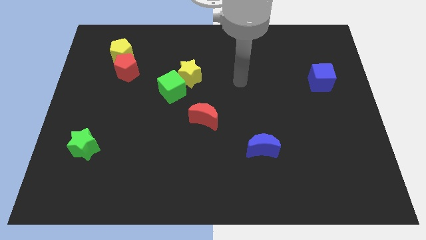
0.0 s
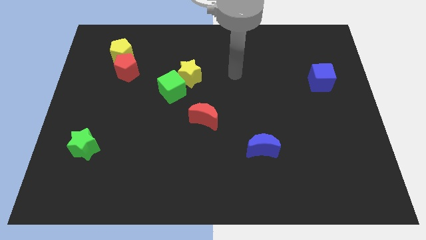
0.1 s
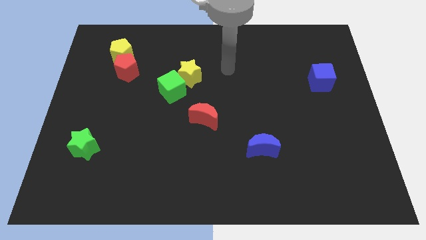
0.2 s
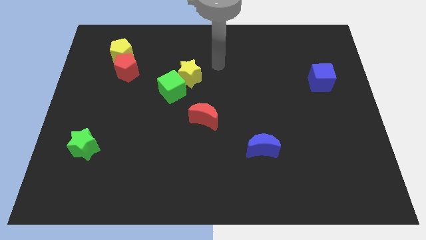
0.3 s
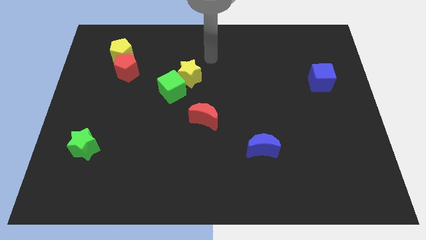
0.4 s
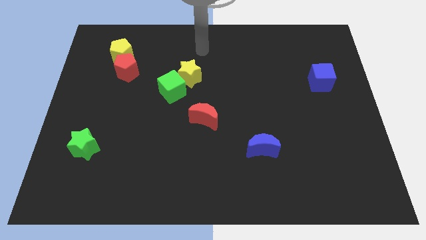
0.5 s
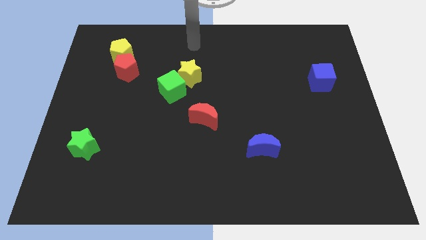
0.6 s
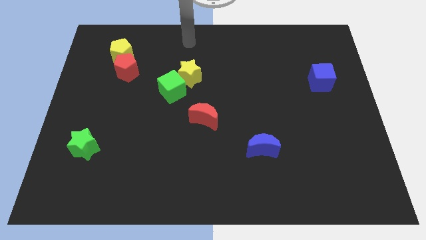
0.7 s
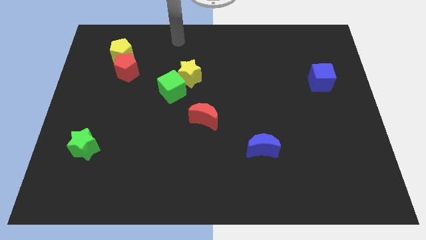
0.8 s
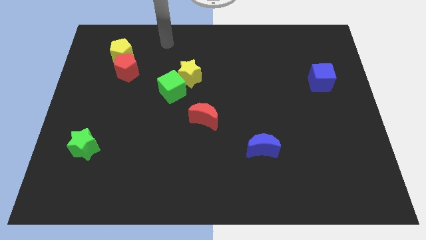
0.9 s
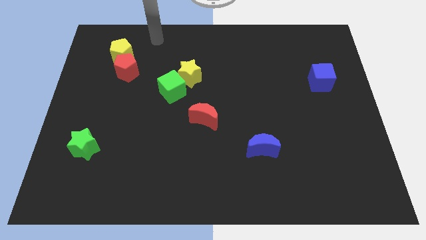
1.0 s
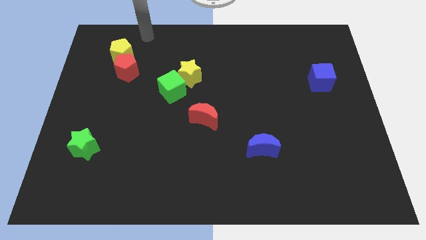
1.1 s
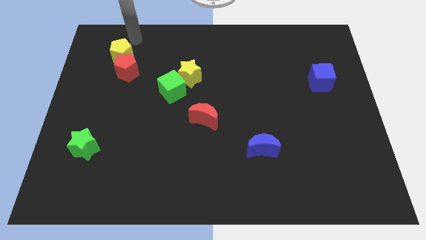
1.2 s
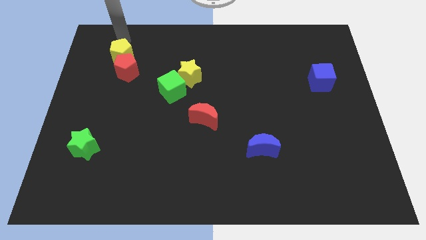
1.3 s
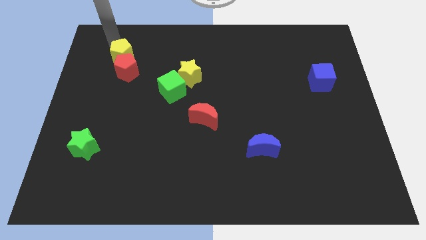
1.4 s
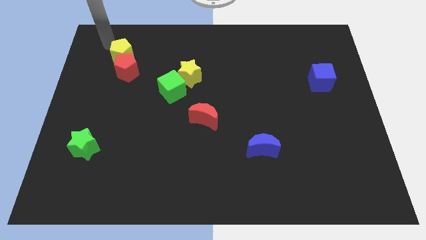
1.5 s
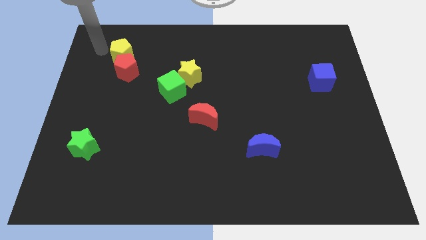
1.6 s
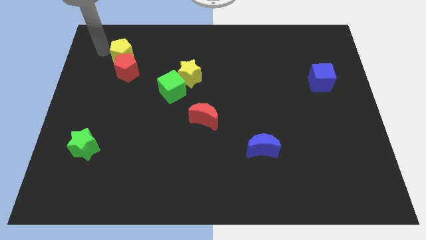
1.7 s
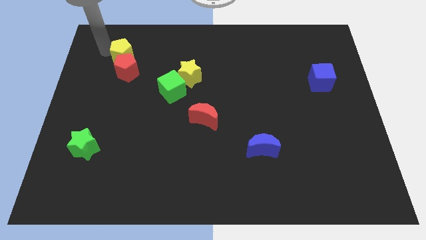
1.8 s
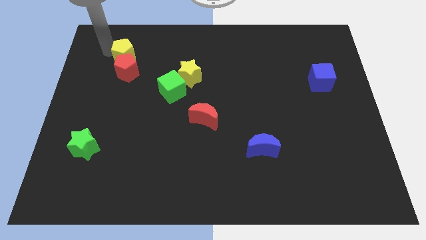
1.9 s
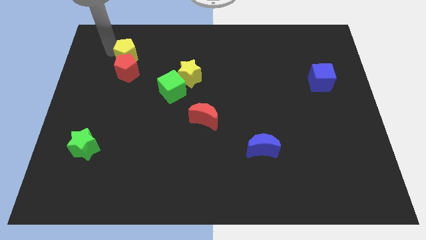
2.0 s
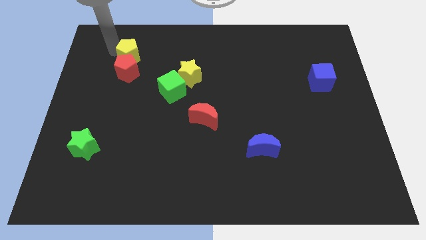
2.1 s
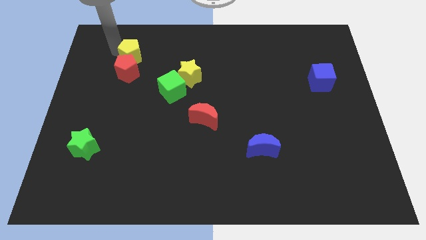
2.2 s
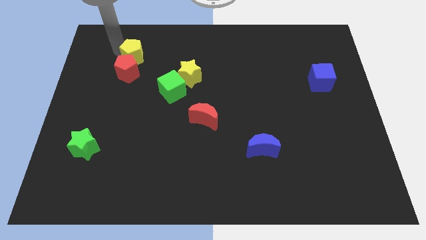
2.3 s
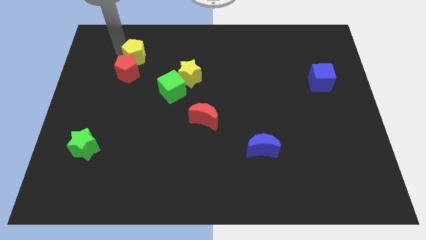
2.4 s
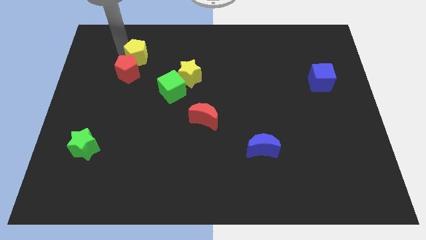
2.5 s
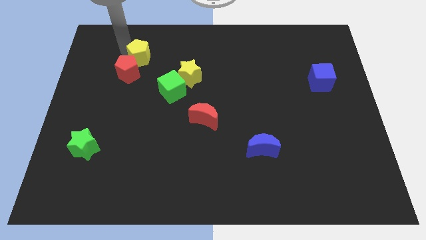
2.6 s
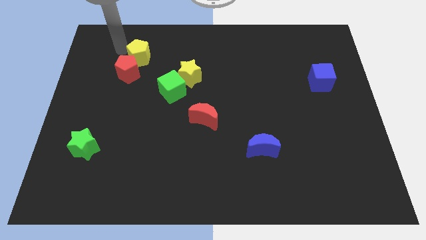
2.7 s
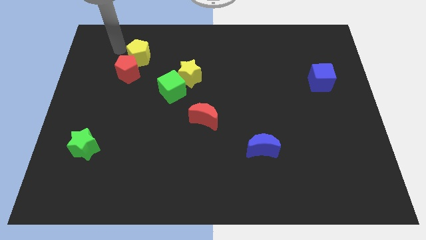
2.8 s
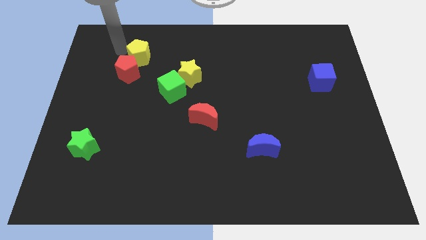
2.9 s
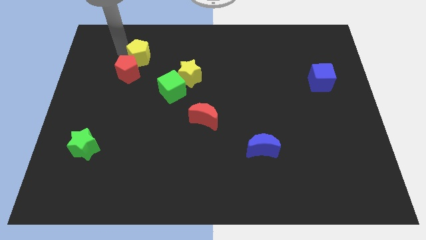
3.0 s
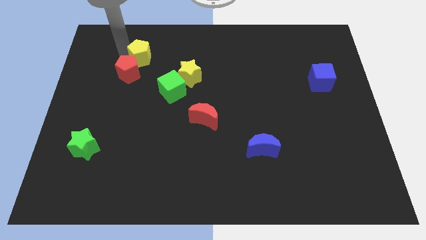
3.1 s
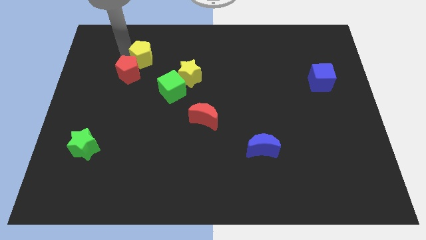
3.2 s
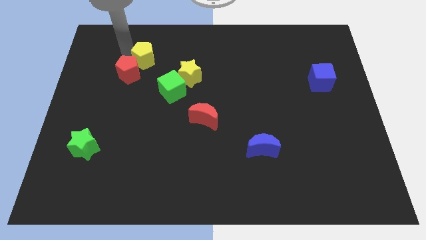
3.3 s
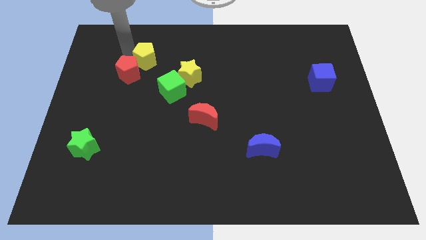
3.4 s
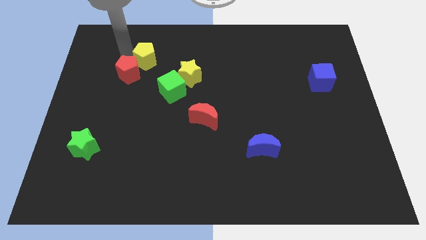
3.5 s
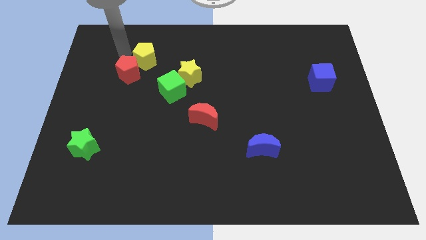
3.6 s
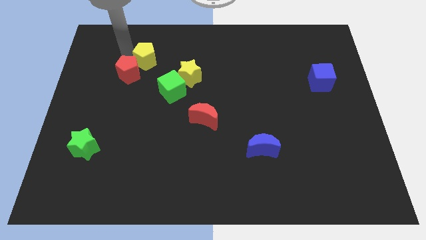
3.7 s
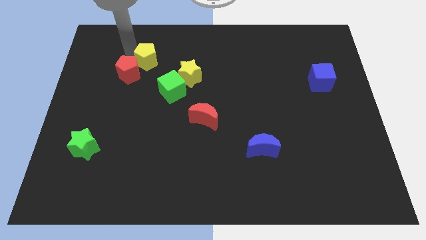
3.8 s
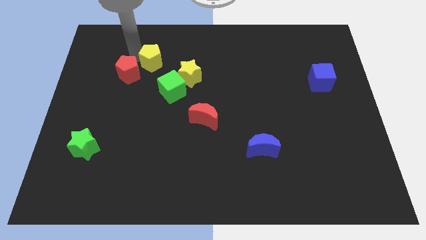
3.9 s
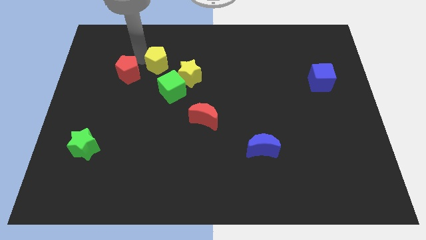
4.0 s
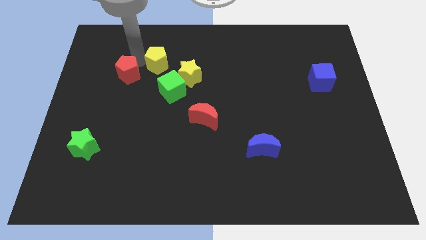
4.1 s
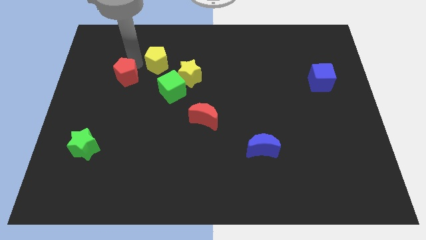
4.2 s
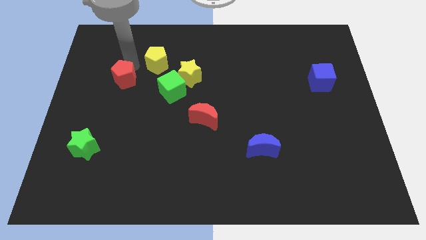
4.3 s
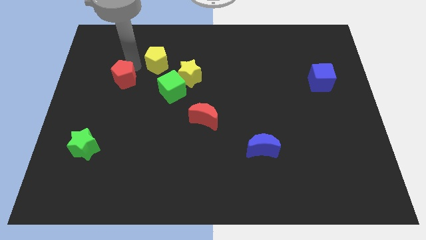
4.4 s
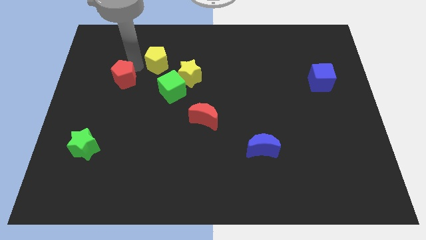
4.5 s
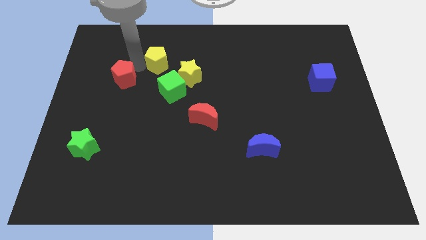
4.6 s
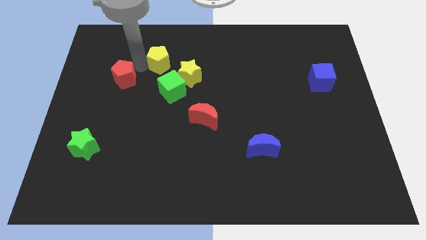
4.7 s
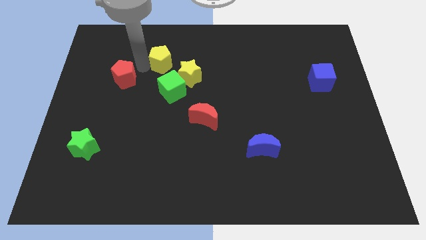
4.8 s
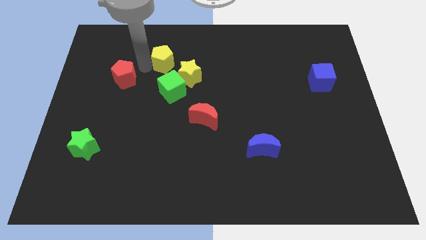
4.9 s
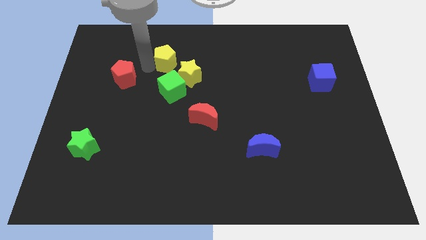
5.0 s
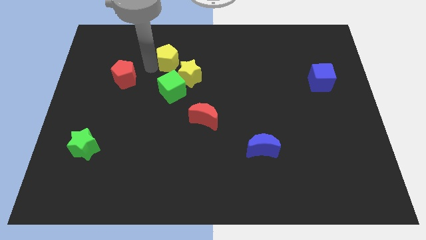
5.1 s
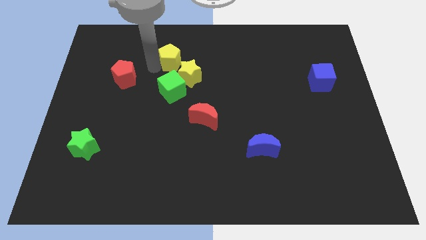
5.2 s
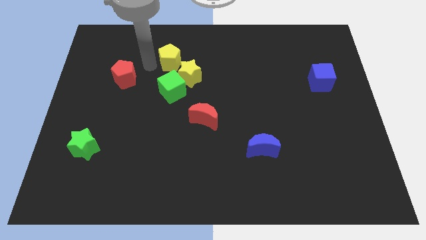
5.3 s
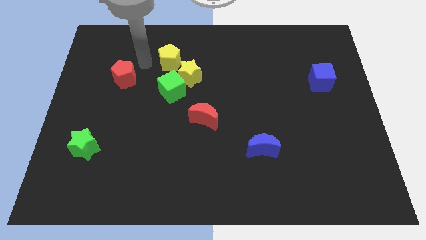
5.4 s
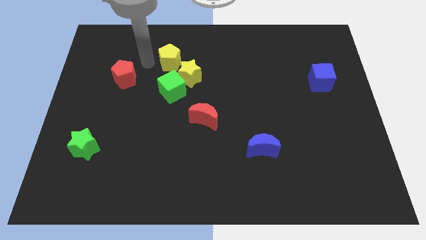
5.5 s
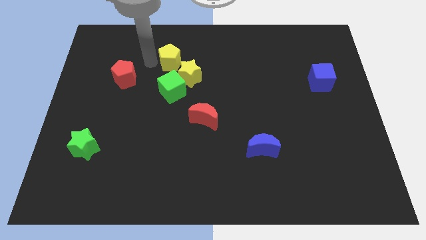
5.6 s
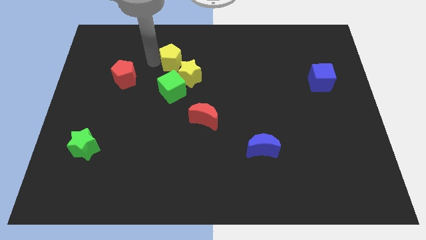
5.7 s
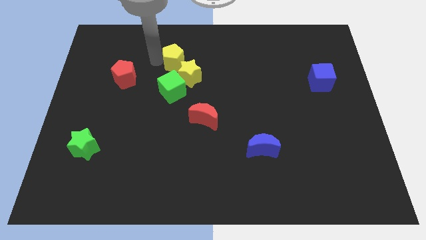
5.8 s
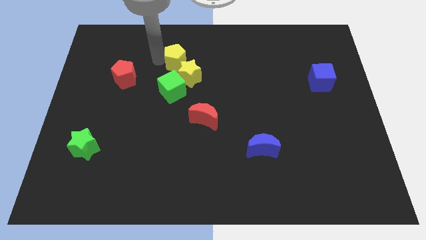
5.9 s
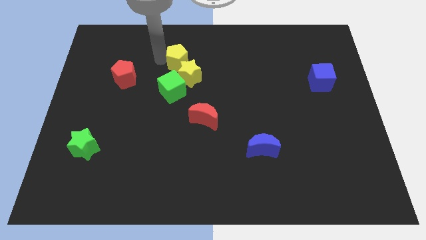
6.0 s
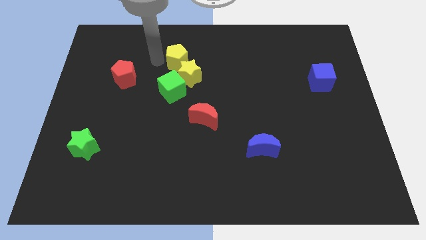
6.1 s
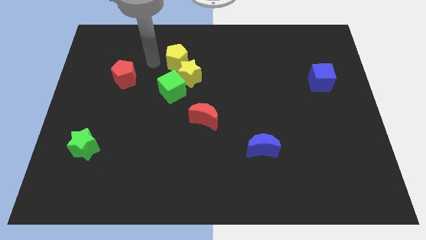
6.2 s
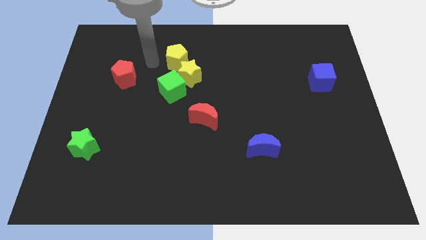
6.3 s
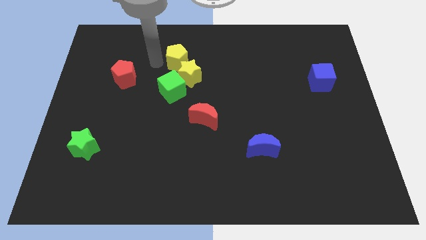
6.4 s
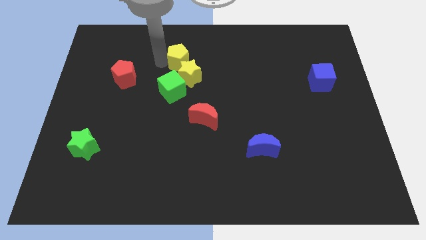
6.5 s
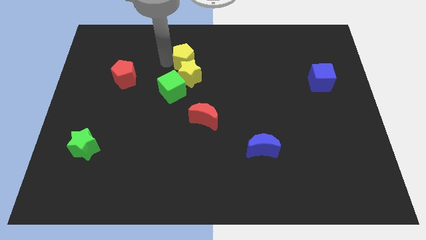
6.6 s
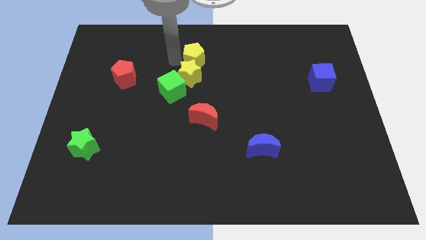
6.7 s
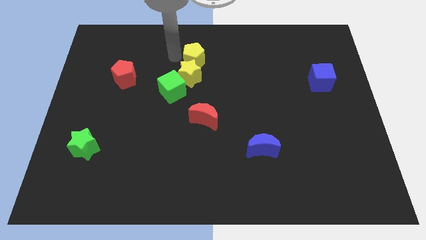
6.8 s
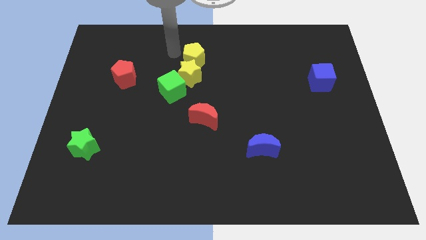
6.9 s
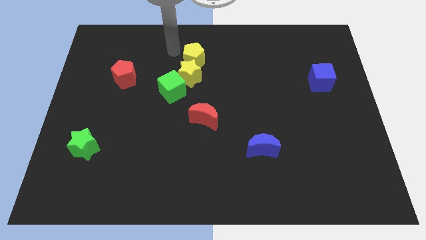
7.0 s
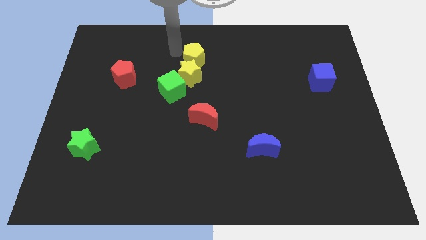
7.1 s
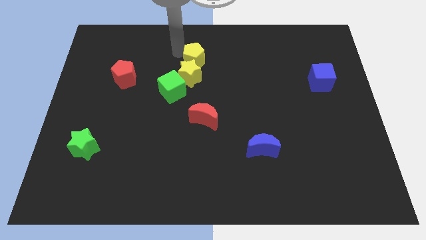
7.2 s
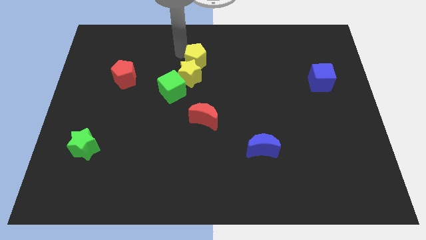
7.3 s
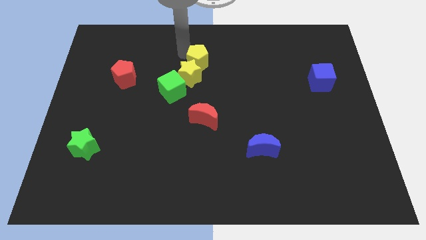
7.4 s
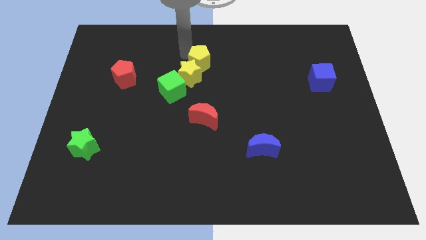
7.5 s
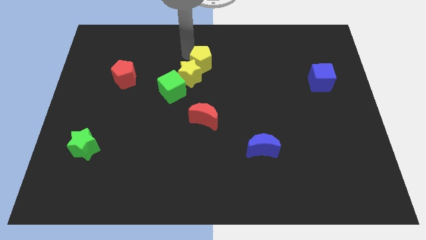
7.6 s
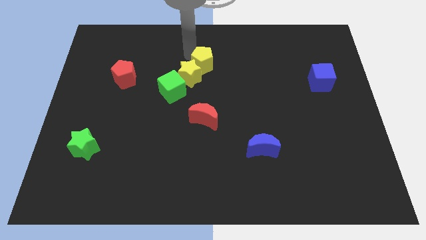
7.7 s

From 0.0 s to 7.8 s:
push the yellow pentagon to the middle
